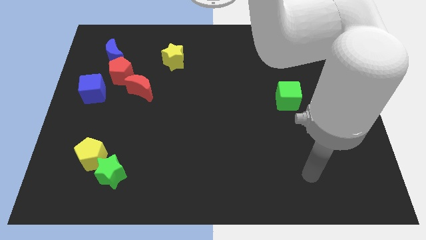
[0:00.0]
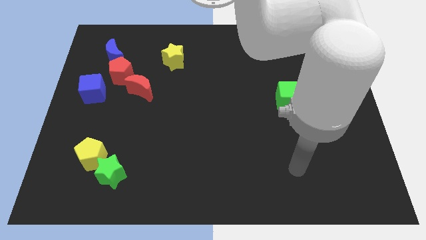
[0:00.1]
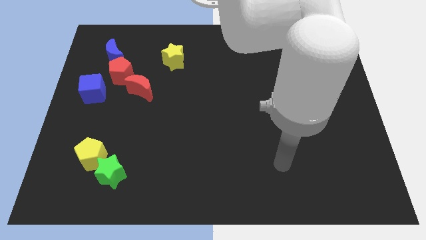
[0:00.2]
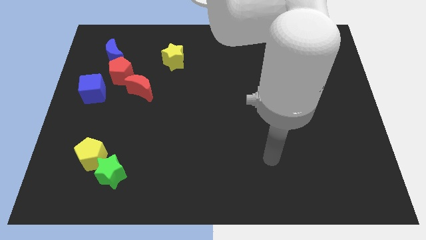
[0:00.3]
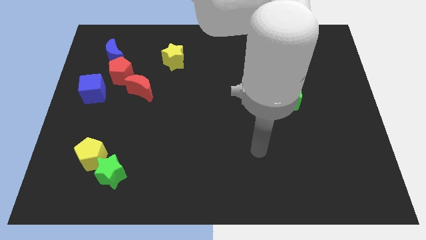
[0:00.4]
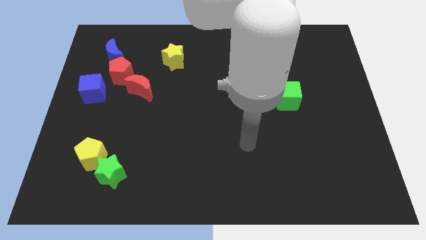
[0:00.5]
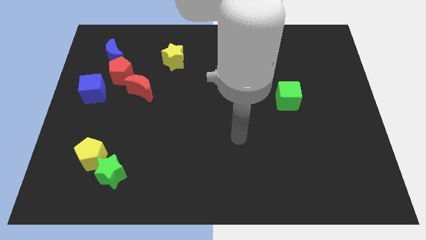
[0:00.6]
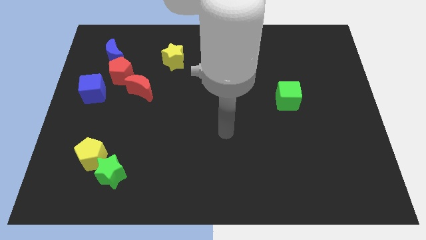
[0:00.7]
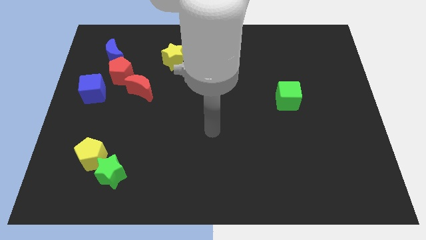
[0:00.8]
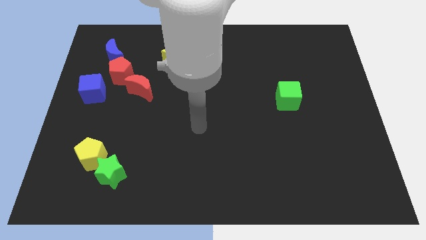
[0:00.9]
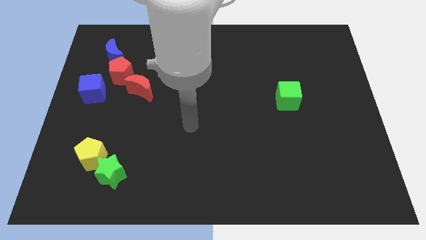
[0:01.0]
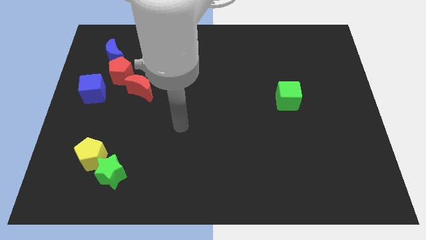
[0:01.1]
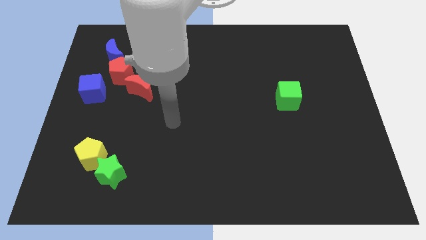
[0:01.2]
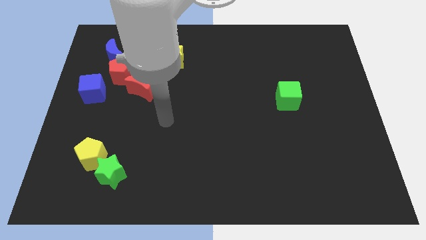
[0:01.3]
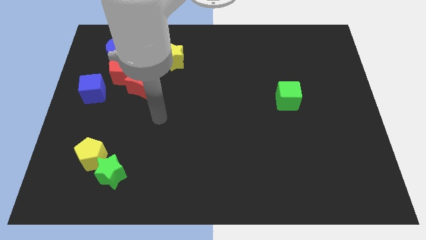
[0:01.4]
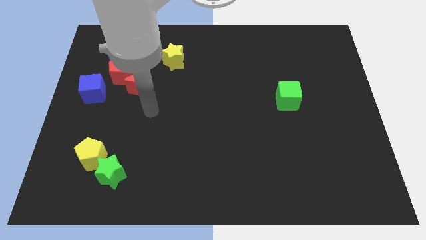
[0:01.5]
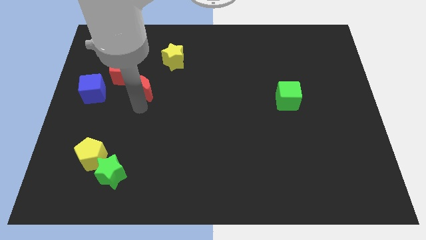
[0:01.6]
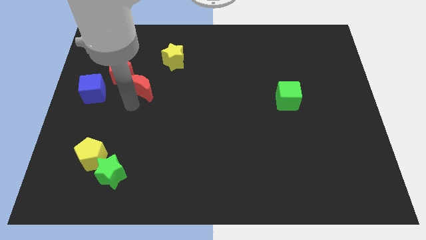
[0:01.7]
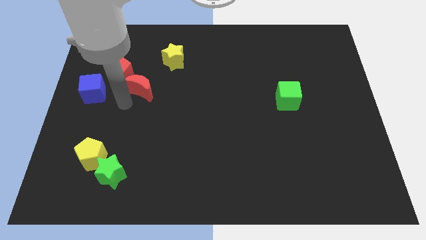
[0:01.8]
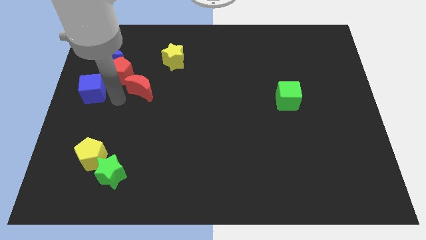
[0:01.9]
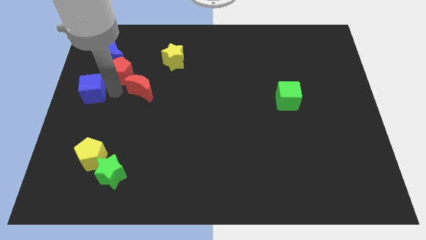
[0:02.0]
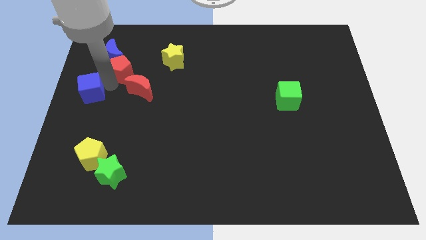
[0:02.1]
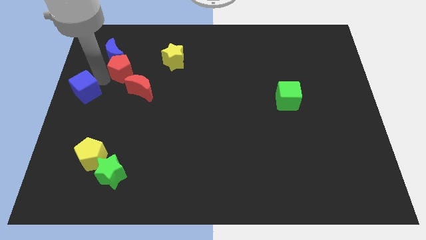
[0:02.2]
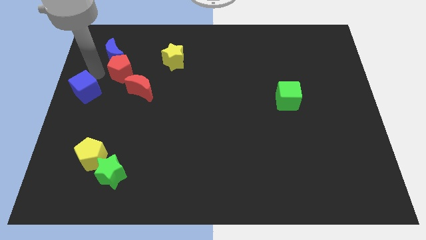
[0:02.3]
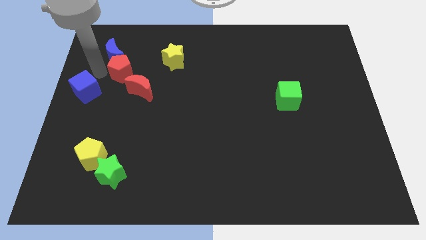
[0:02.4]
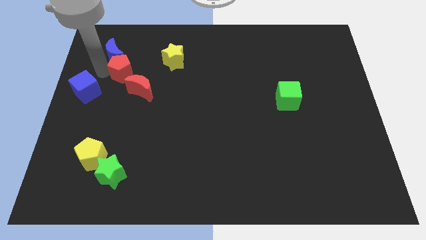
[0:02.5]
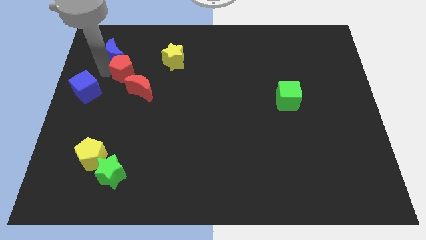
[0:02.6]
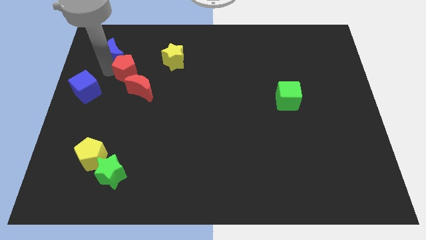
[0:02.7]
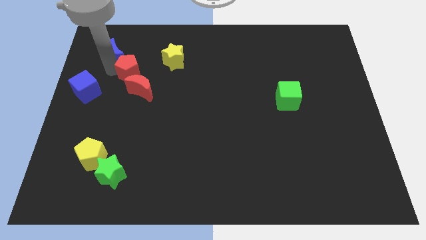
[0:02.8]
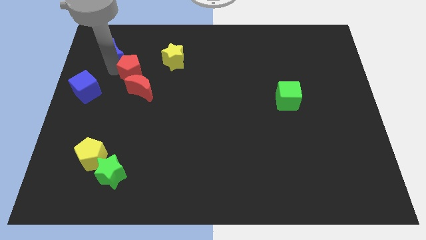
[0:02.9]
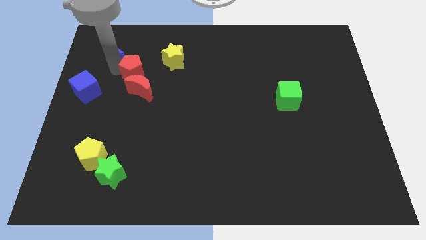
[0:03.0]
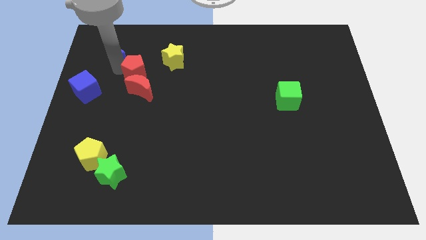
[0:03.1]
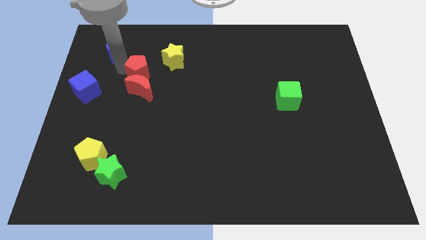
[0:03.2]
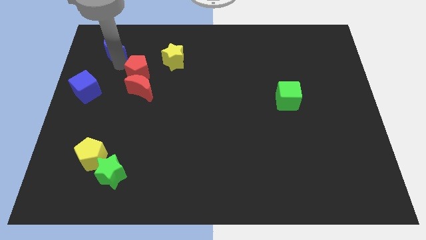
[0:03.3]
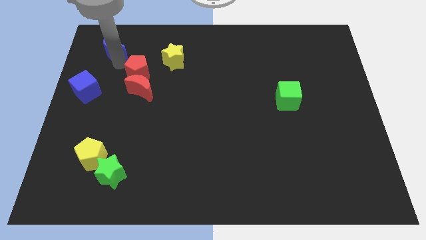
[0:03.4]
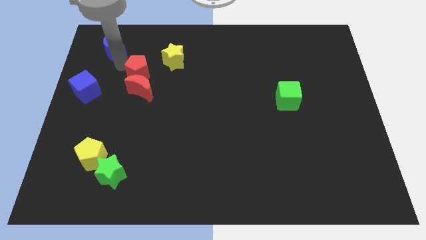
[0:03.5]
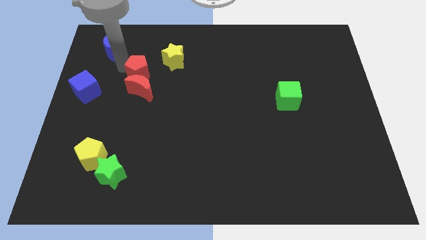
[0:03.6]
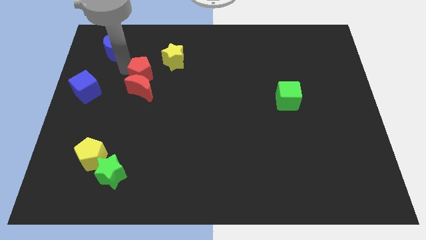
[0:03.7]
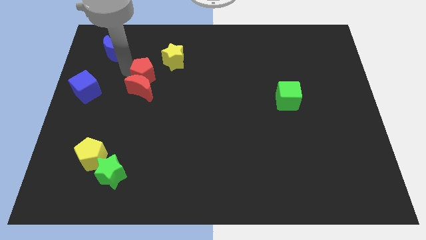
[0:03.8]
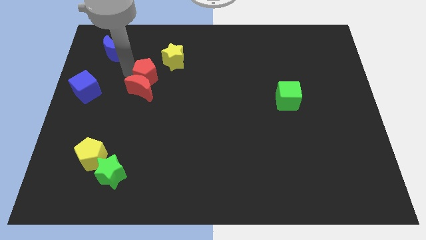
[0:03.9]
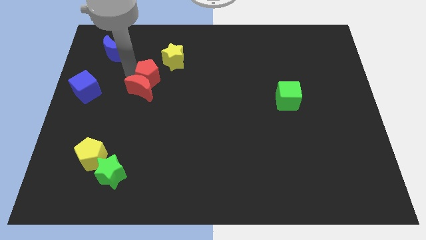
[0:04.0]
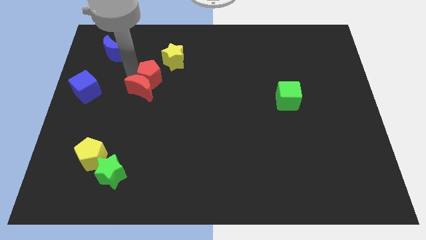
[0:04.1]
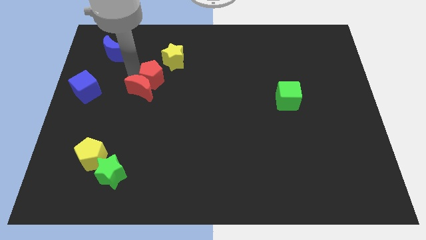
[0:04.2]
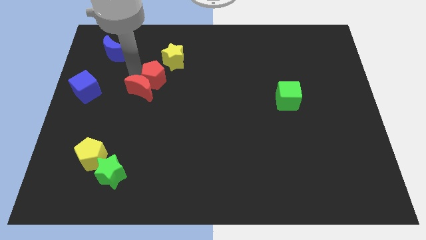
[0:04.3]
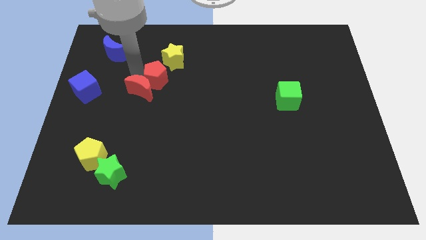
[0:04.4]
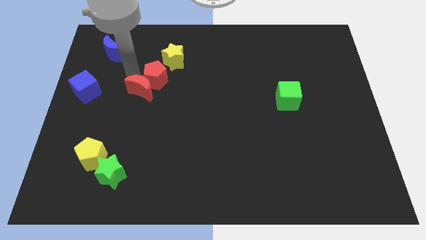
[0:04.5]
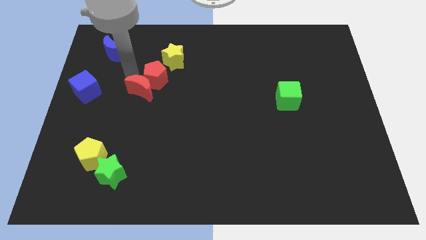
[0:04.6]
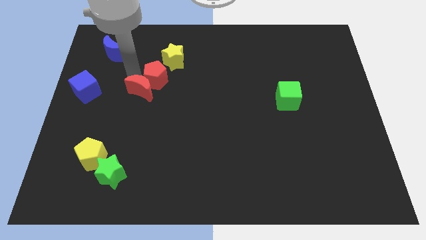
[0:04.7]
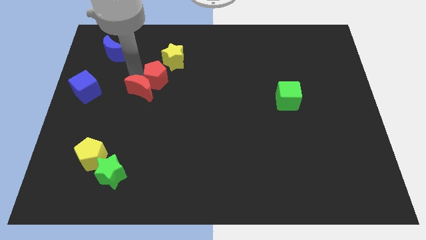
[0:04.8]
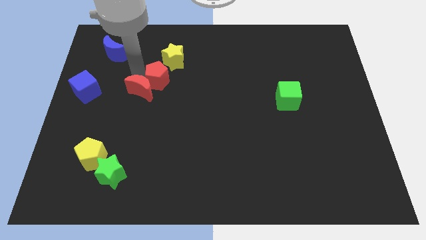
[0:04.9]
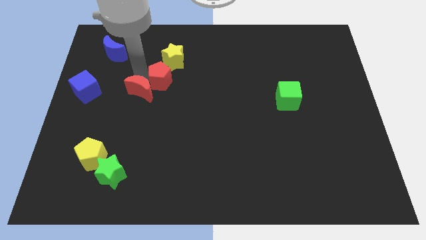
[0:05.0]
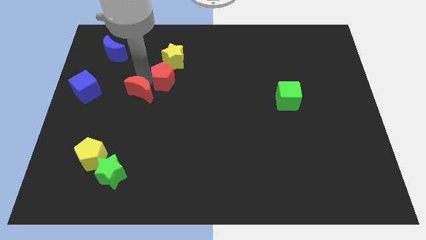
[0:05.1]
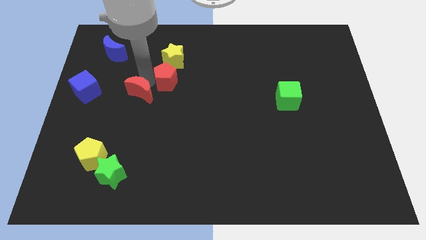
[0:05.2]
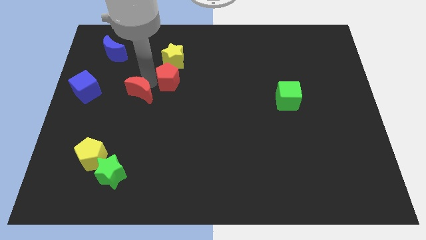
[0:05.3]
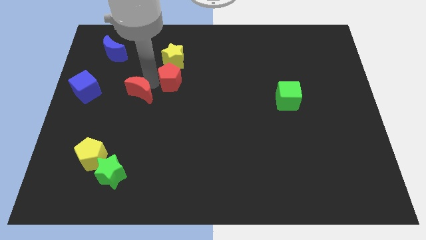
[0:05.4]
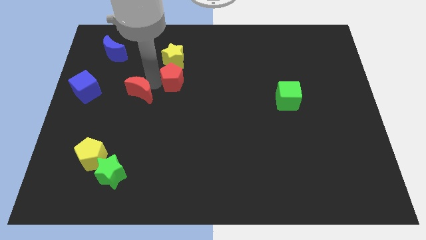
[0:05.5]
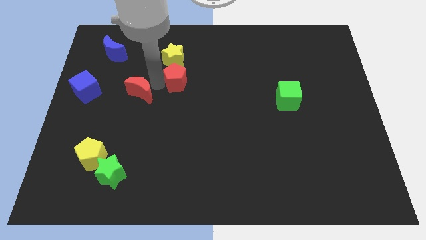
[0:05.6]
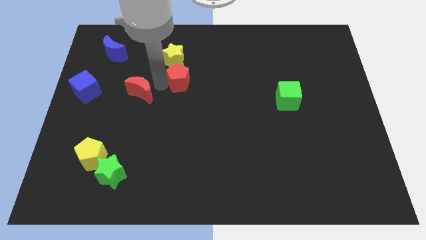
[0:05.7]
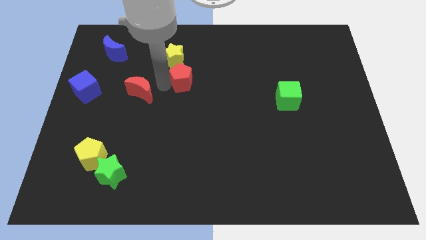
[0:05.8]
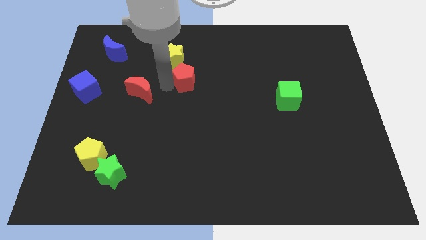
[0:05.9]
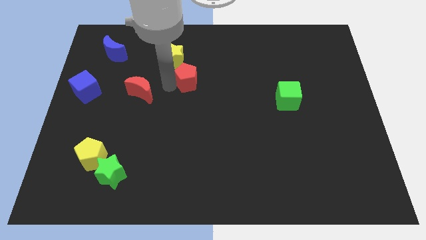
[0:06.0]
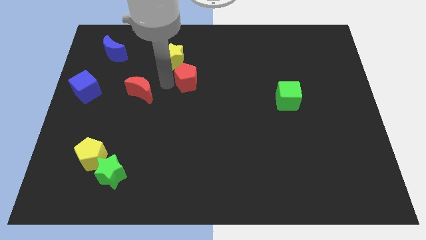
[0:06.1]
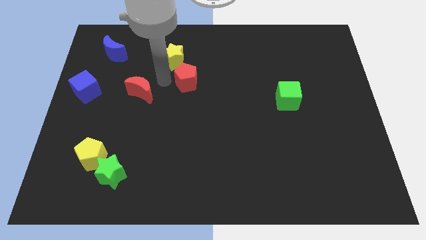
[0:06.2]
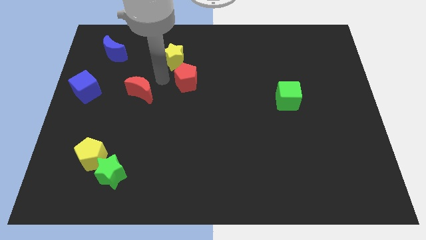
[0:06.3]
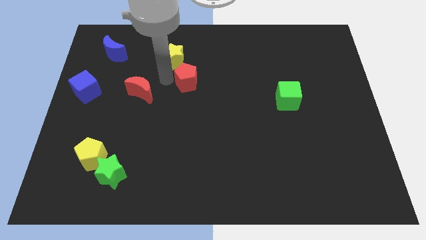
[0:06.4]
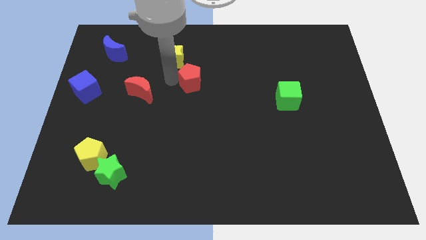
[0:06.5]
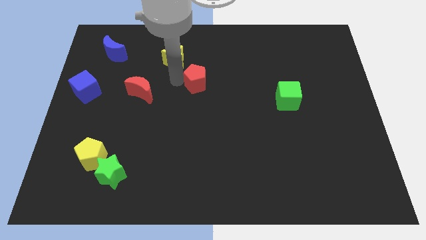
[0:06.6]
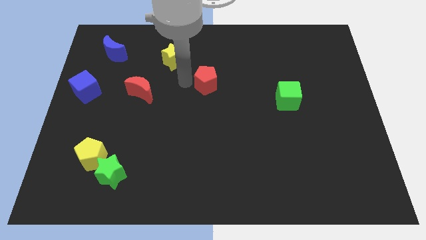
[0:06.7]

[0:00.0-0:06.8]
slide the red pentagon to the right

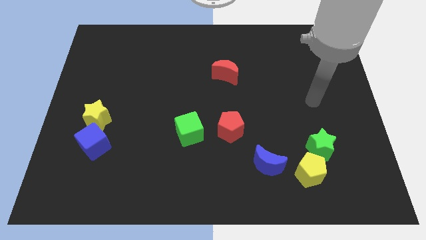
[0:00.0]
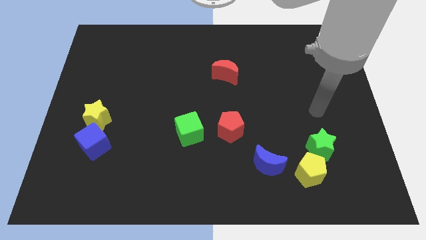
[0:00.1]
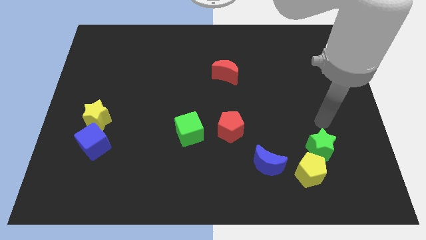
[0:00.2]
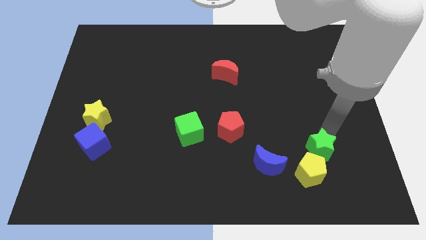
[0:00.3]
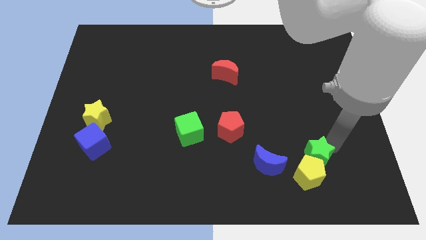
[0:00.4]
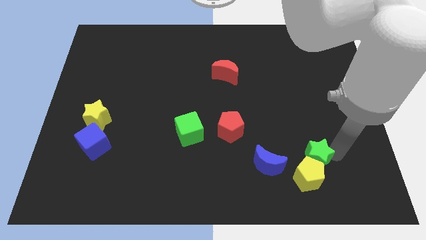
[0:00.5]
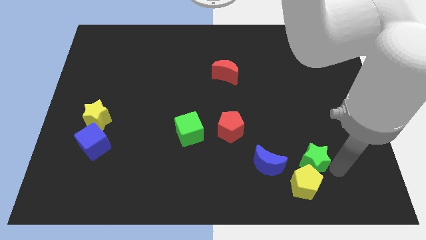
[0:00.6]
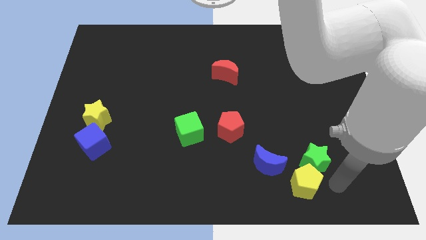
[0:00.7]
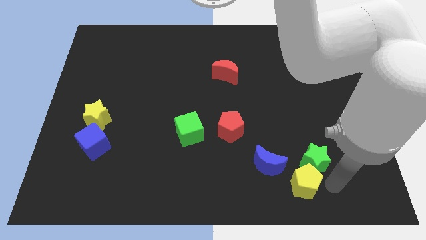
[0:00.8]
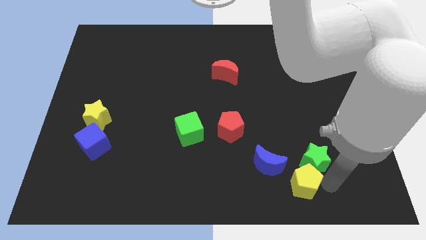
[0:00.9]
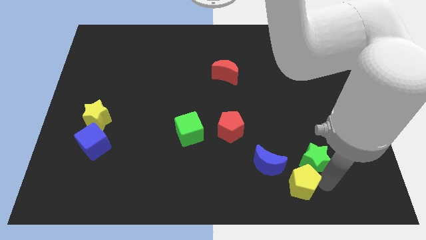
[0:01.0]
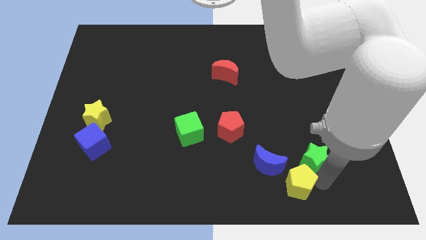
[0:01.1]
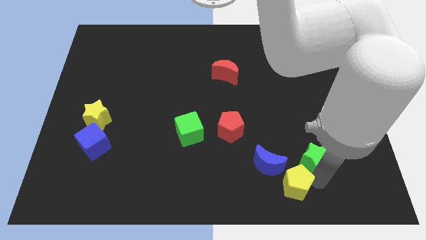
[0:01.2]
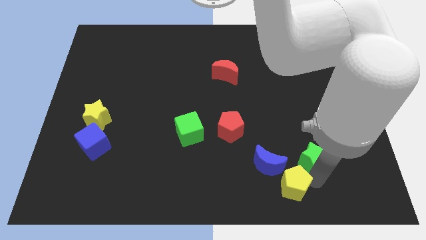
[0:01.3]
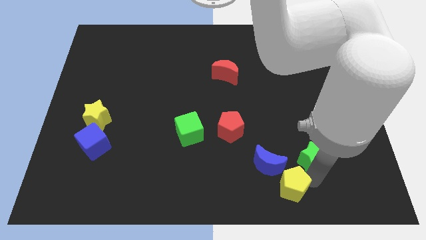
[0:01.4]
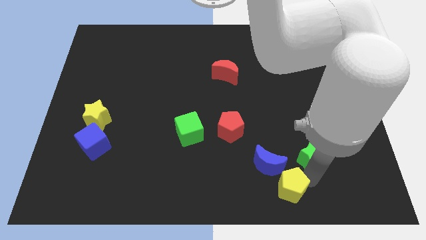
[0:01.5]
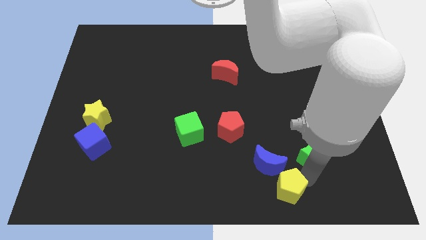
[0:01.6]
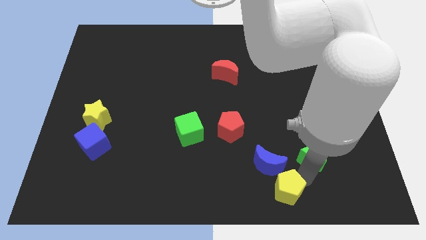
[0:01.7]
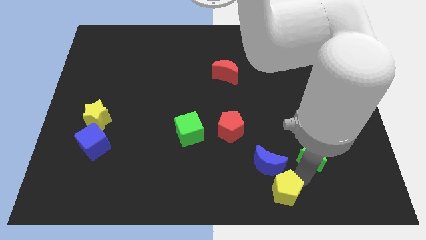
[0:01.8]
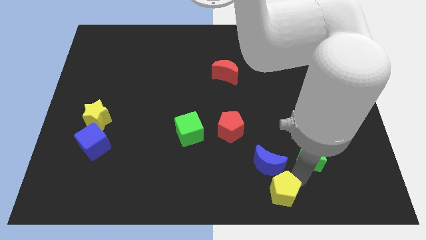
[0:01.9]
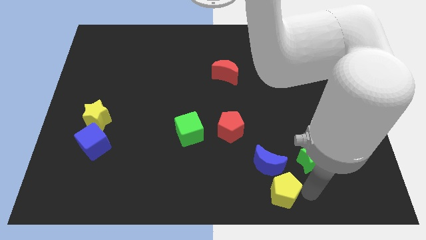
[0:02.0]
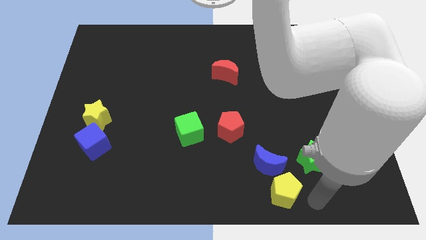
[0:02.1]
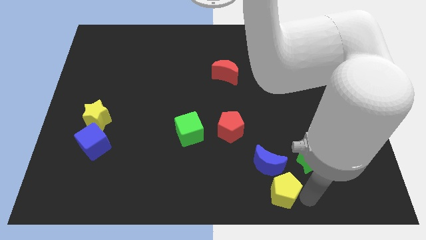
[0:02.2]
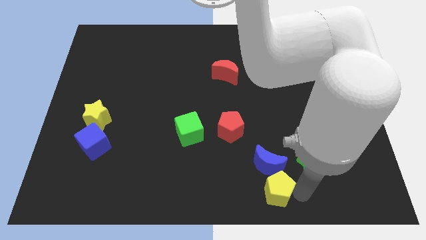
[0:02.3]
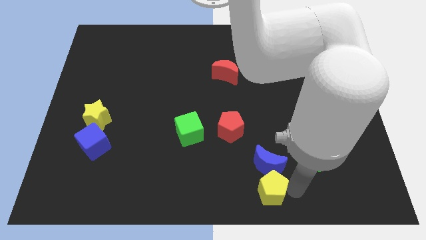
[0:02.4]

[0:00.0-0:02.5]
move the yellow pentagon slightly to the left
